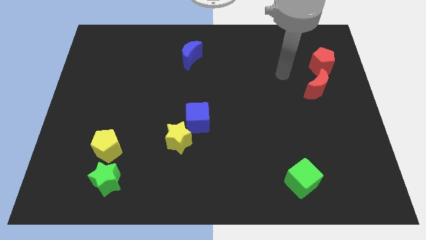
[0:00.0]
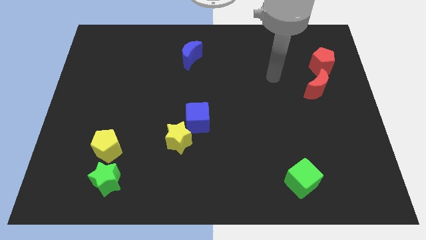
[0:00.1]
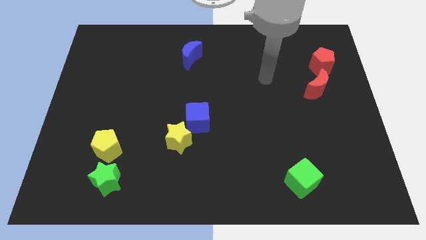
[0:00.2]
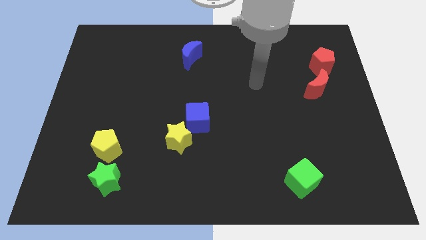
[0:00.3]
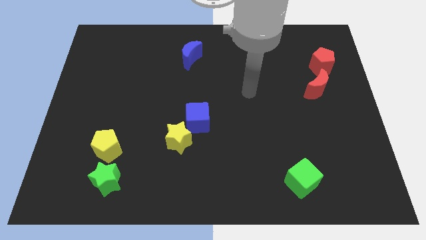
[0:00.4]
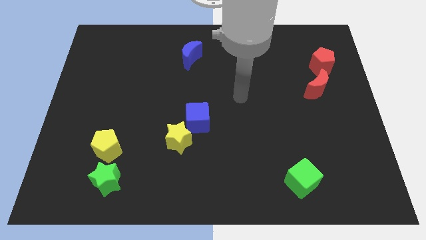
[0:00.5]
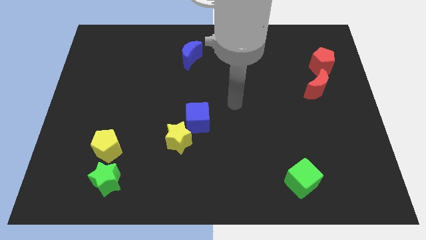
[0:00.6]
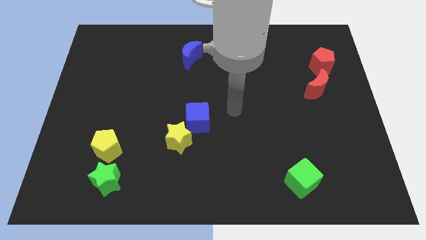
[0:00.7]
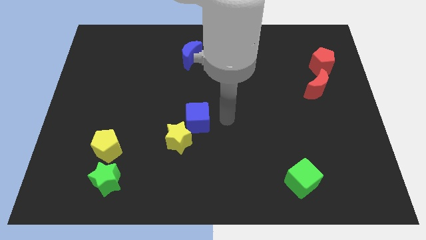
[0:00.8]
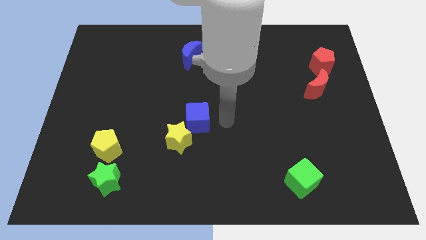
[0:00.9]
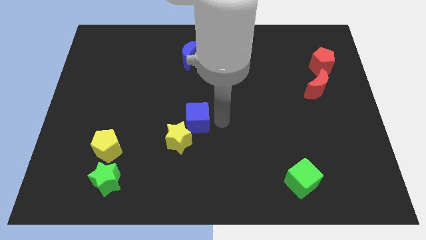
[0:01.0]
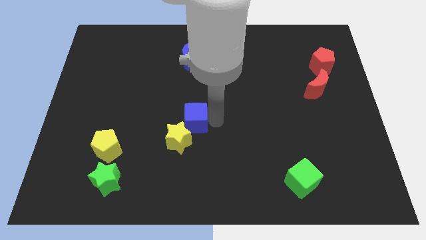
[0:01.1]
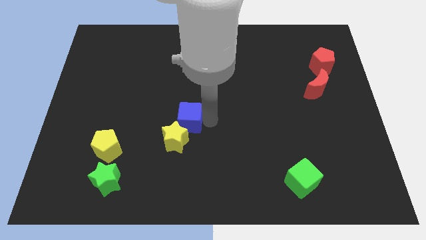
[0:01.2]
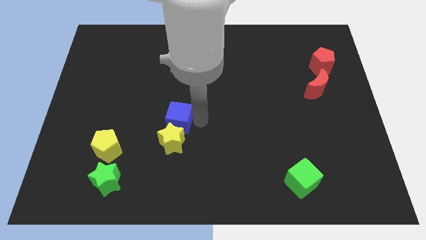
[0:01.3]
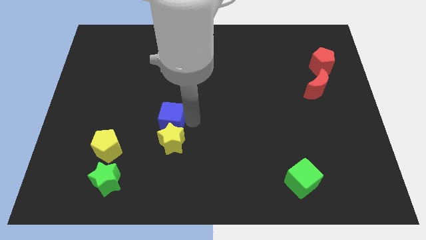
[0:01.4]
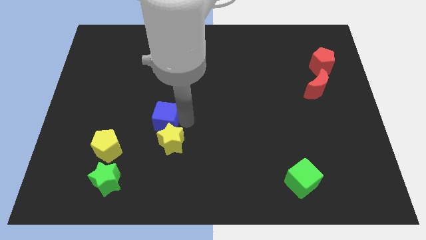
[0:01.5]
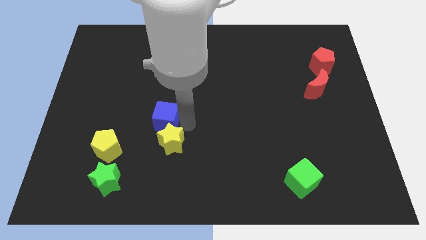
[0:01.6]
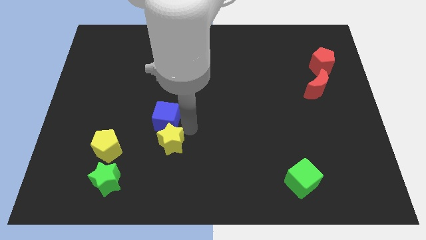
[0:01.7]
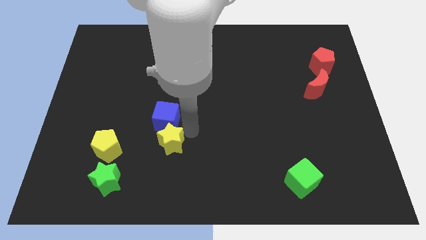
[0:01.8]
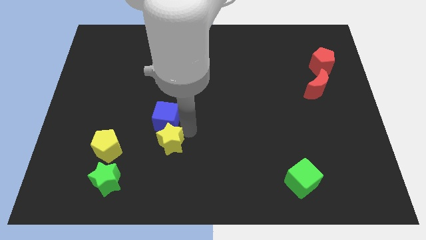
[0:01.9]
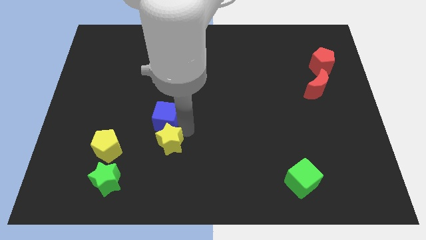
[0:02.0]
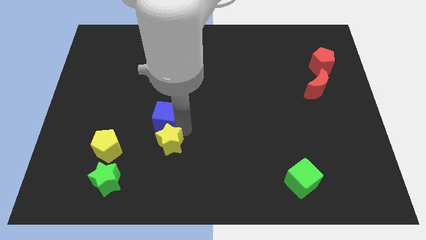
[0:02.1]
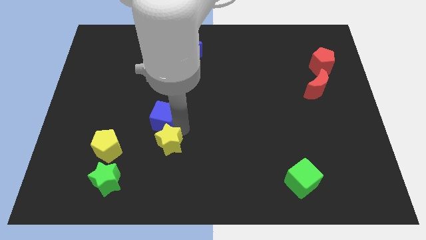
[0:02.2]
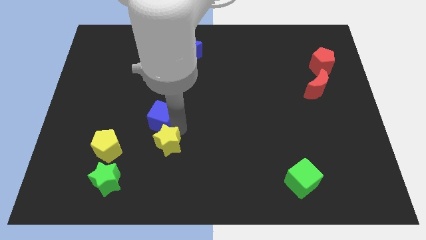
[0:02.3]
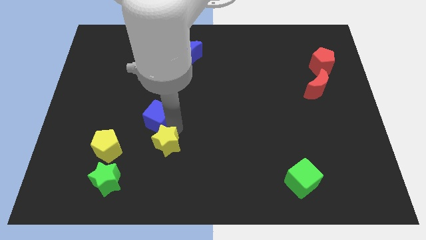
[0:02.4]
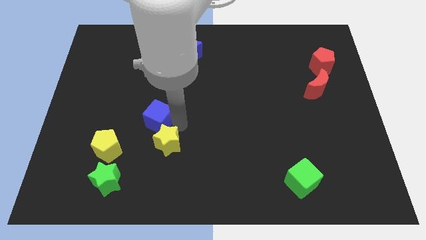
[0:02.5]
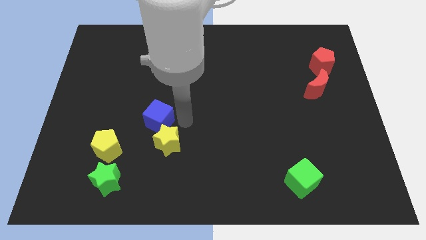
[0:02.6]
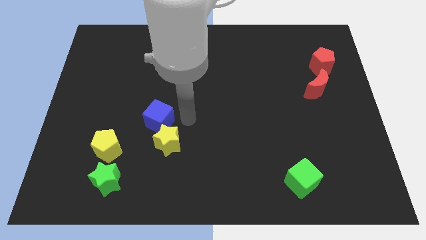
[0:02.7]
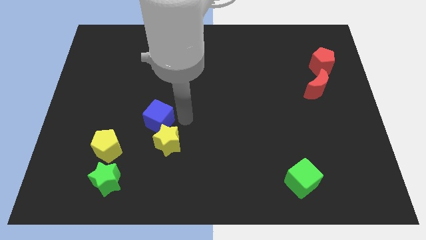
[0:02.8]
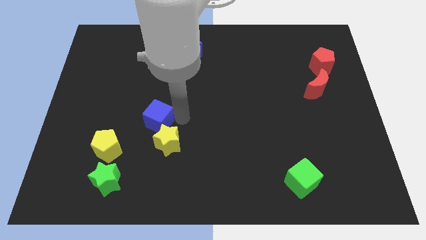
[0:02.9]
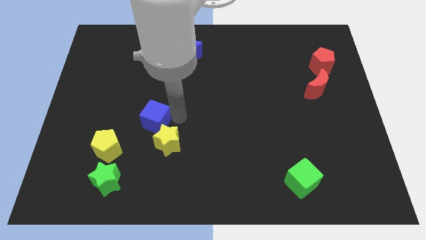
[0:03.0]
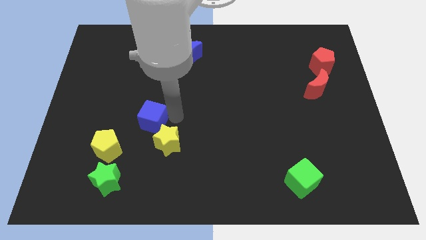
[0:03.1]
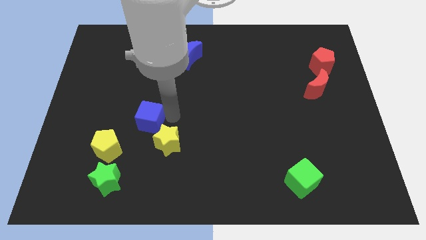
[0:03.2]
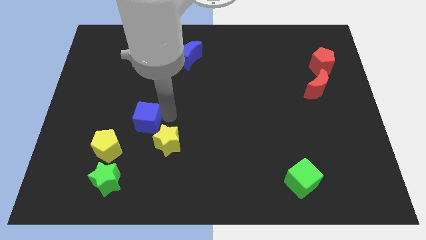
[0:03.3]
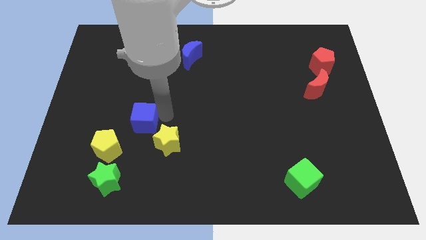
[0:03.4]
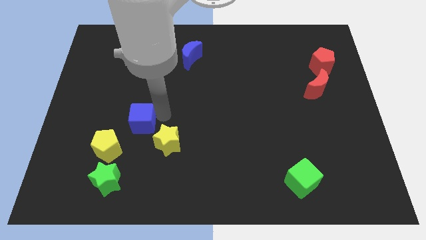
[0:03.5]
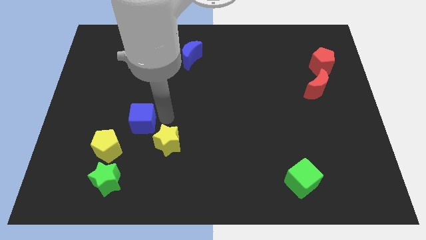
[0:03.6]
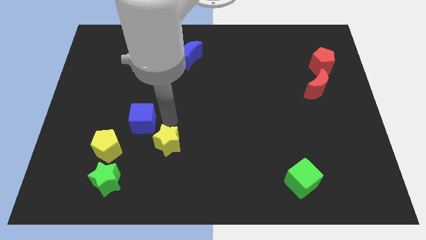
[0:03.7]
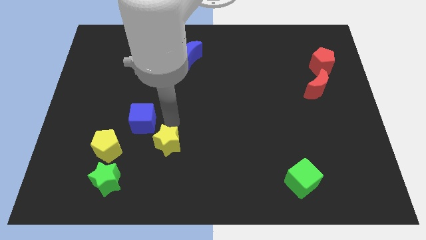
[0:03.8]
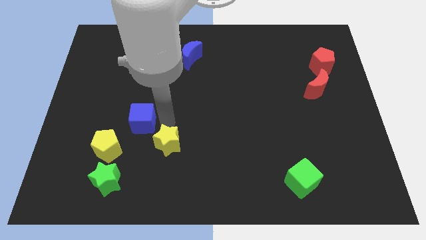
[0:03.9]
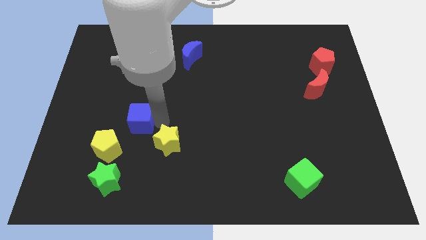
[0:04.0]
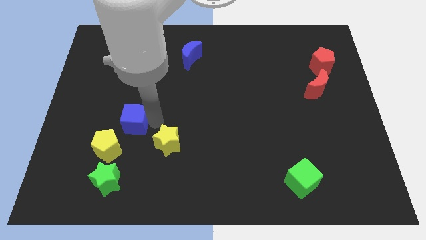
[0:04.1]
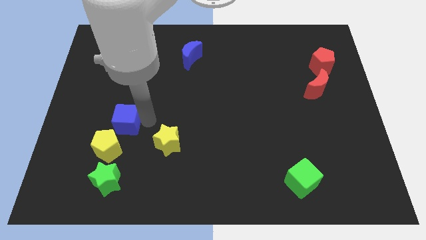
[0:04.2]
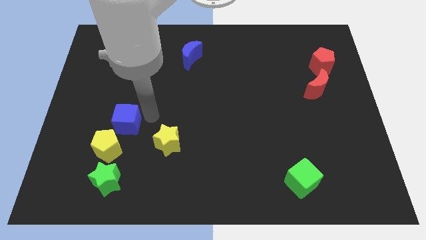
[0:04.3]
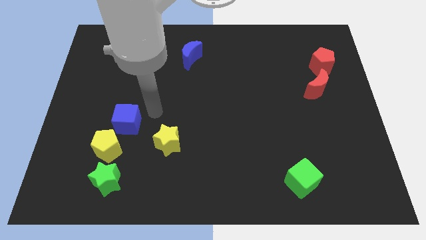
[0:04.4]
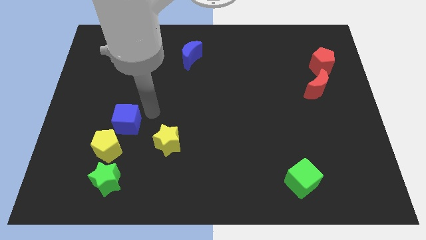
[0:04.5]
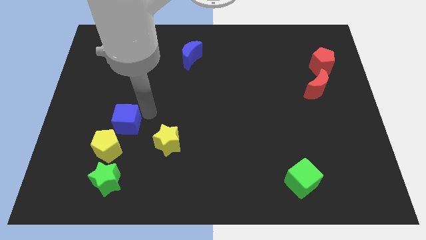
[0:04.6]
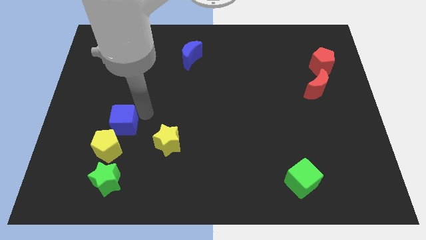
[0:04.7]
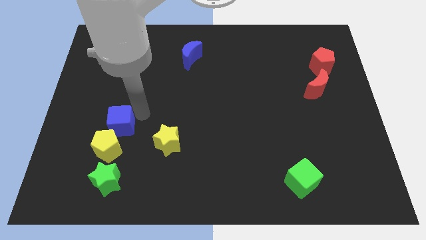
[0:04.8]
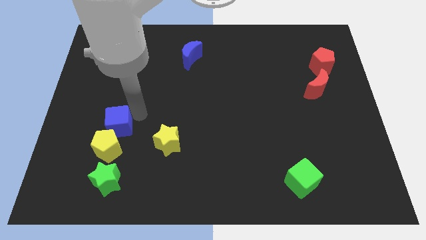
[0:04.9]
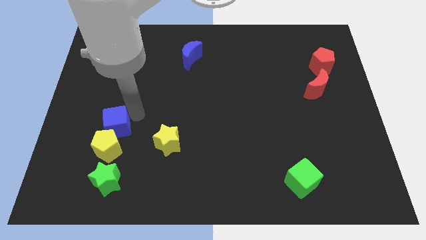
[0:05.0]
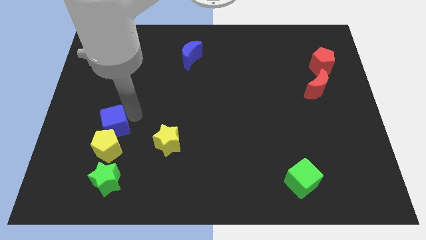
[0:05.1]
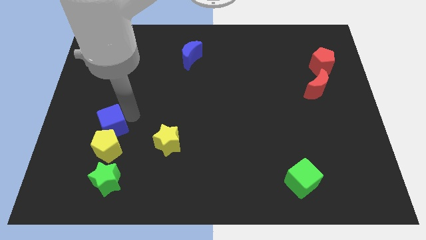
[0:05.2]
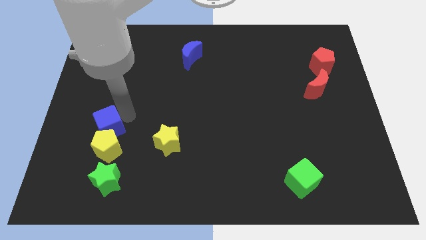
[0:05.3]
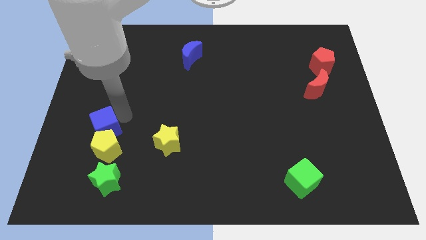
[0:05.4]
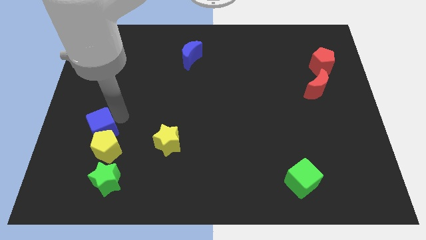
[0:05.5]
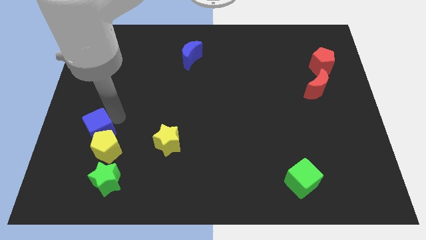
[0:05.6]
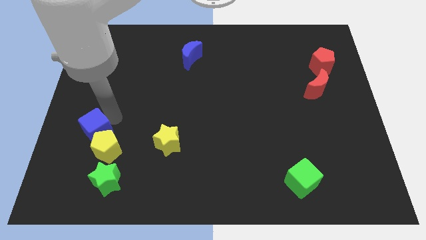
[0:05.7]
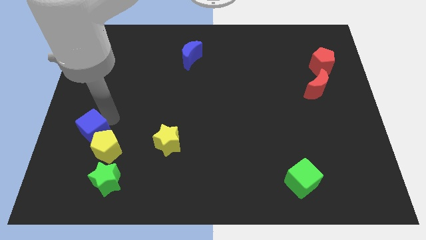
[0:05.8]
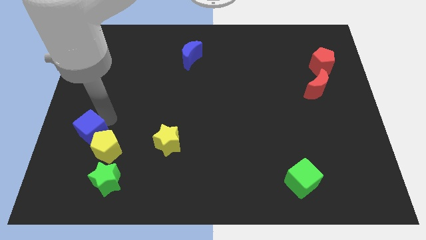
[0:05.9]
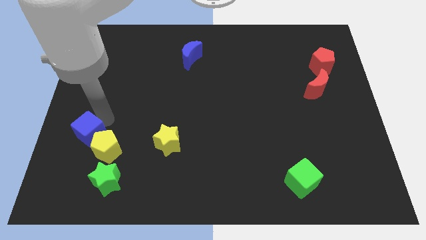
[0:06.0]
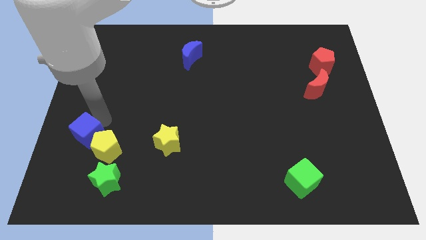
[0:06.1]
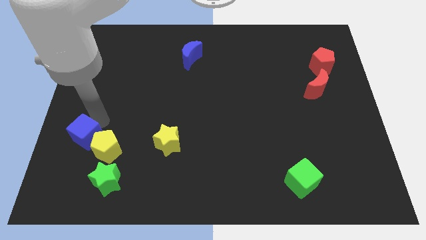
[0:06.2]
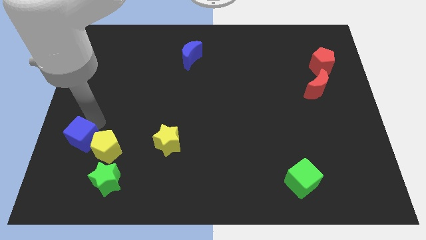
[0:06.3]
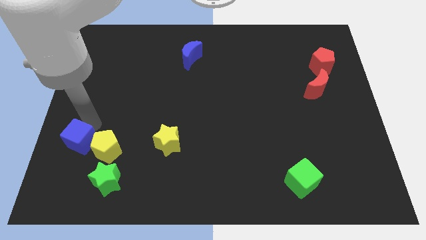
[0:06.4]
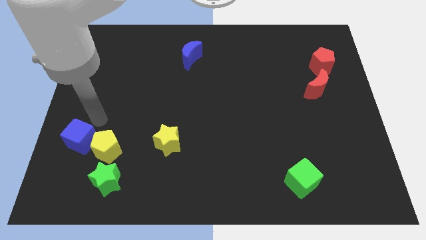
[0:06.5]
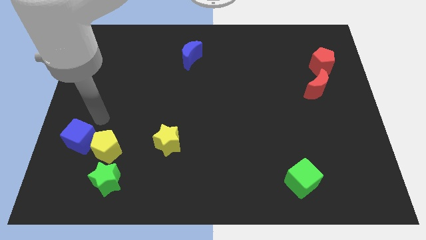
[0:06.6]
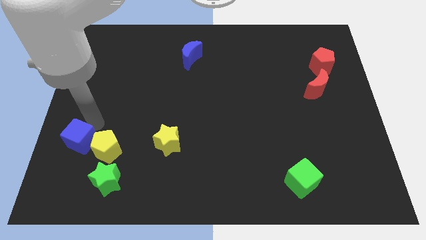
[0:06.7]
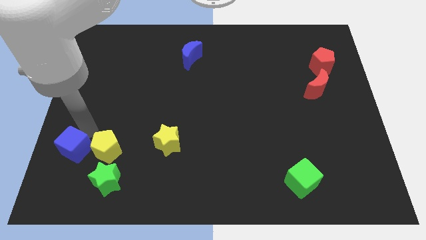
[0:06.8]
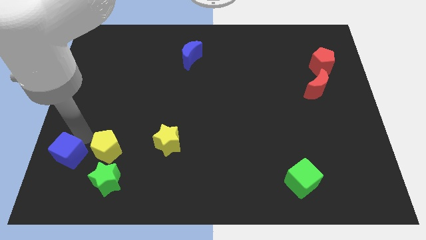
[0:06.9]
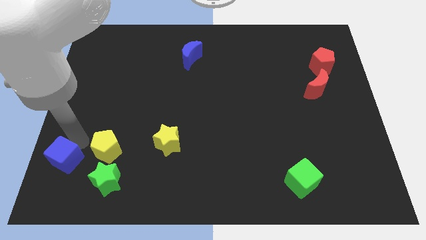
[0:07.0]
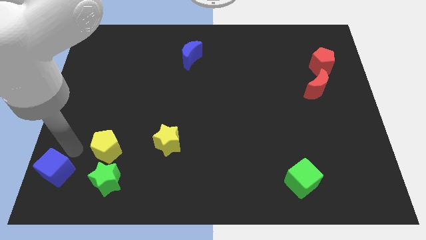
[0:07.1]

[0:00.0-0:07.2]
slide the blue cube to the bottom left
